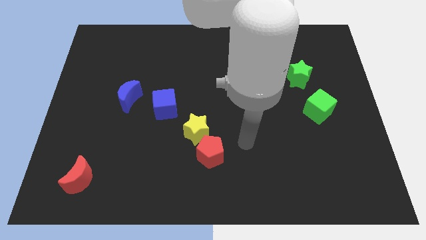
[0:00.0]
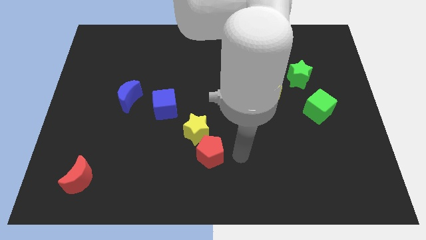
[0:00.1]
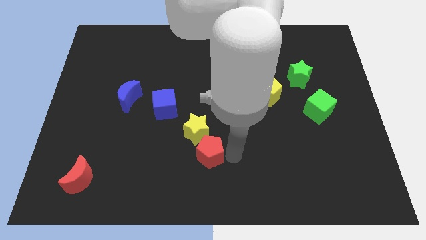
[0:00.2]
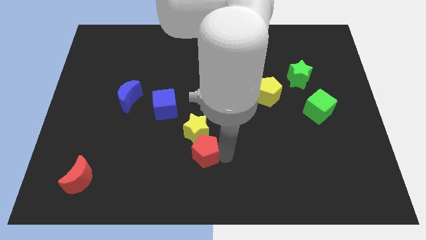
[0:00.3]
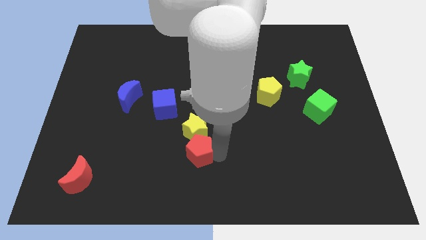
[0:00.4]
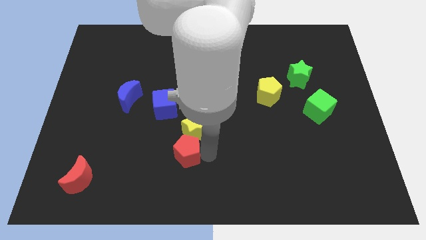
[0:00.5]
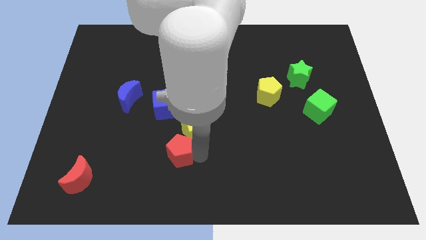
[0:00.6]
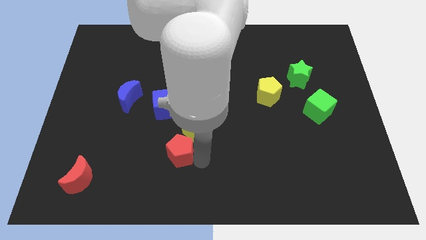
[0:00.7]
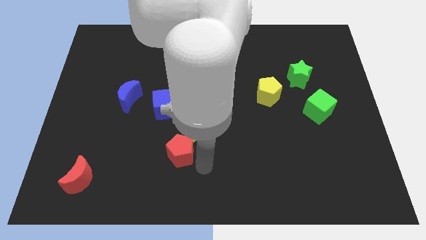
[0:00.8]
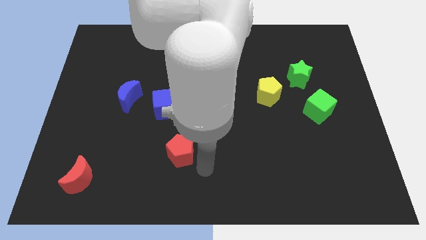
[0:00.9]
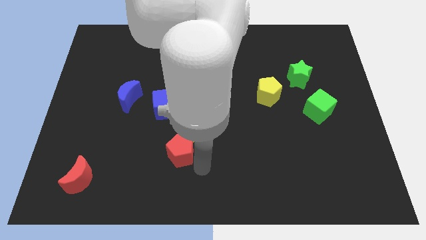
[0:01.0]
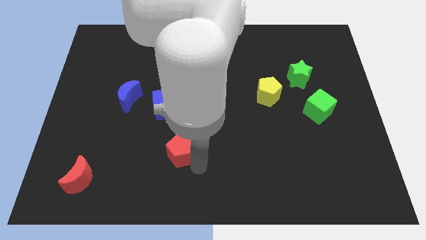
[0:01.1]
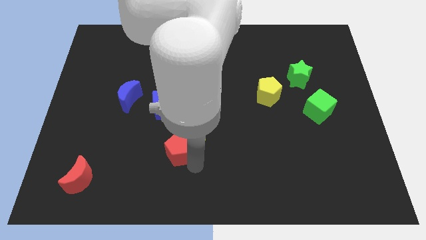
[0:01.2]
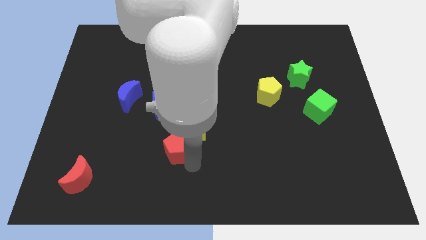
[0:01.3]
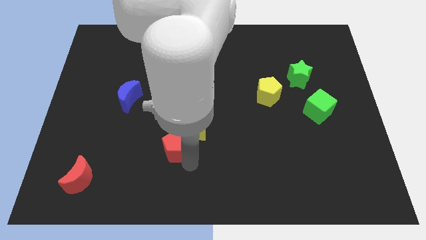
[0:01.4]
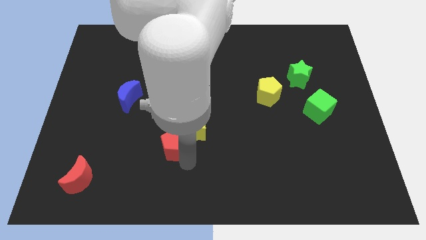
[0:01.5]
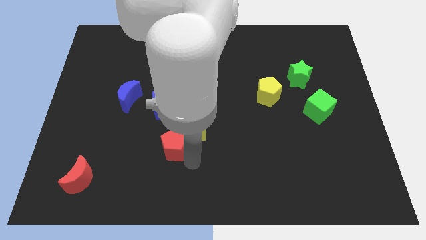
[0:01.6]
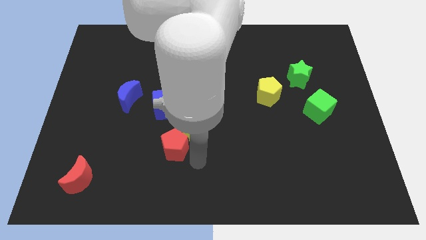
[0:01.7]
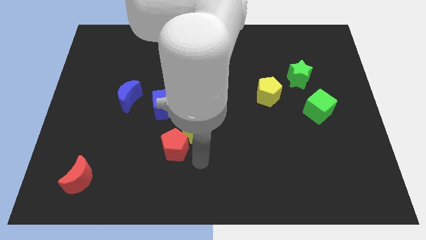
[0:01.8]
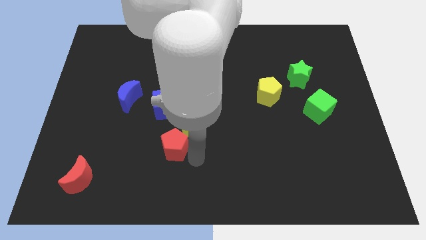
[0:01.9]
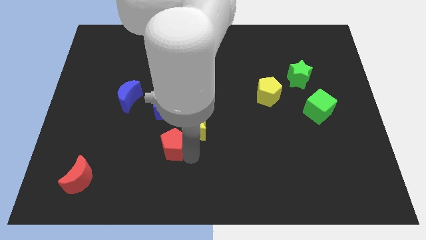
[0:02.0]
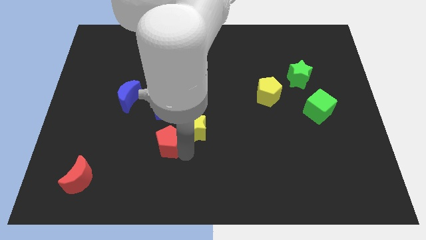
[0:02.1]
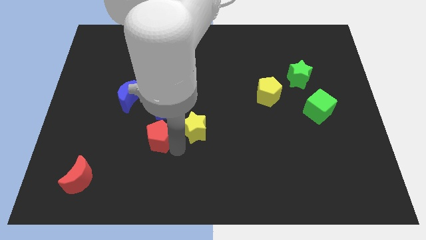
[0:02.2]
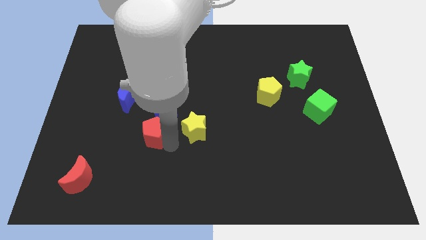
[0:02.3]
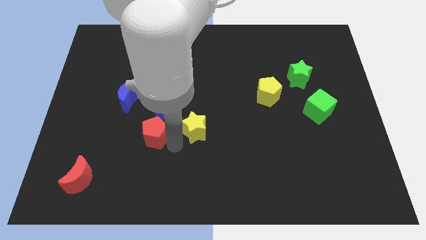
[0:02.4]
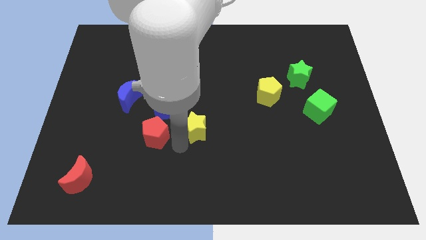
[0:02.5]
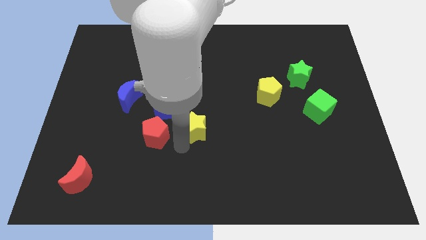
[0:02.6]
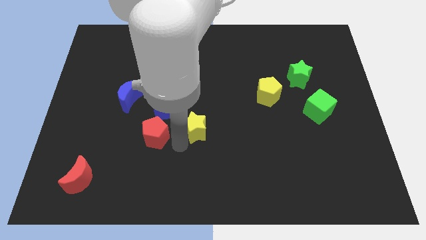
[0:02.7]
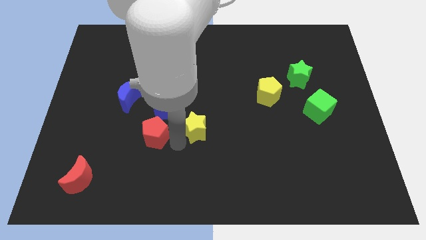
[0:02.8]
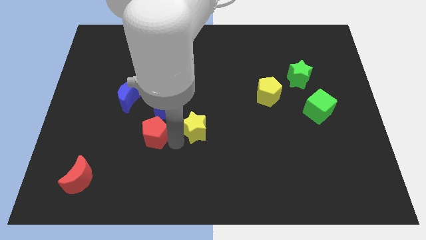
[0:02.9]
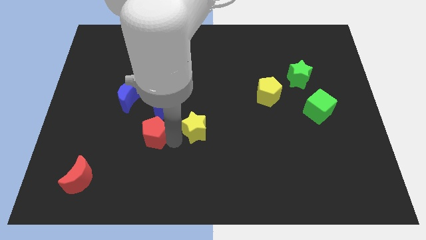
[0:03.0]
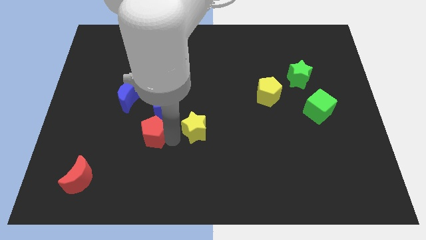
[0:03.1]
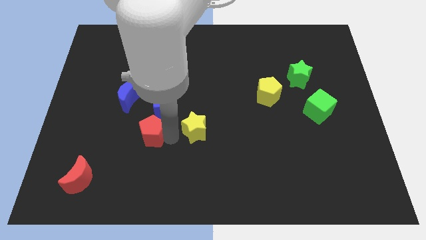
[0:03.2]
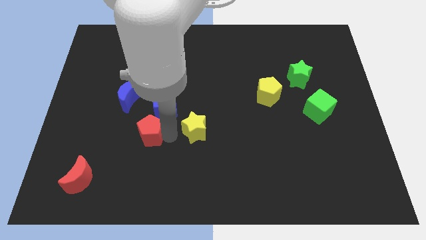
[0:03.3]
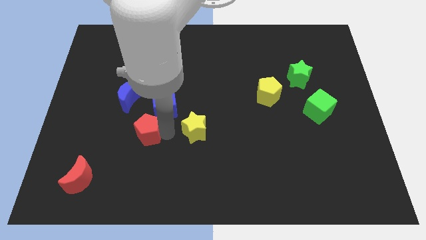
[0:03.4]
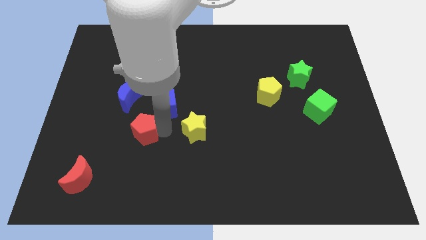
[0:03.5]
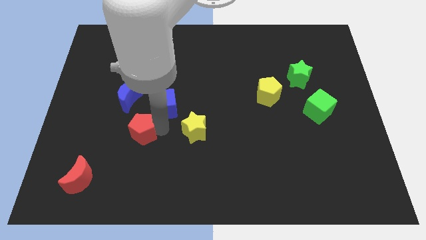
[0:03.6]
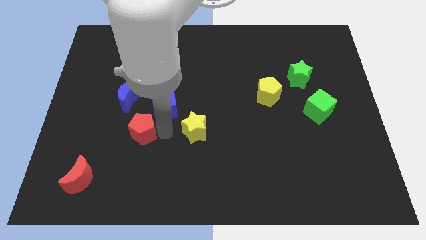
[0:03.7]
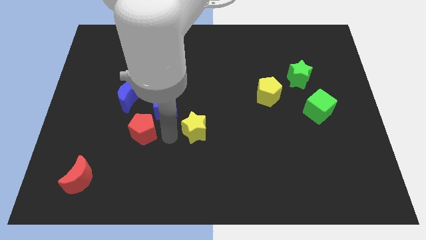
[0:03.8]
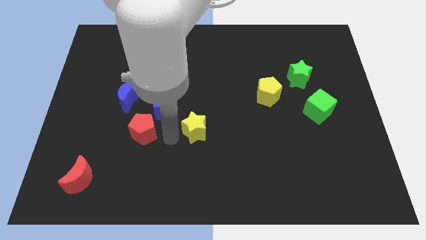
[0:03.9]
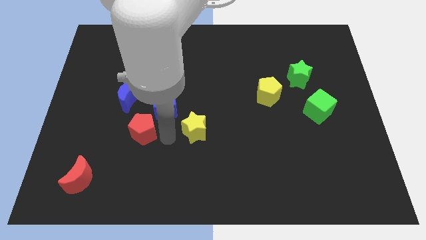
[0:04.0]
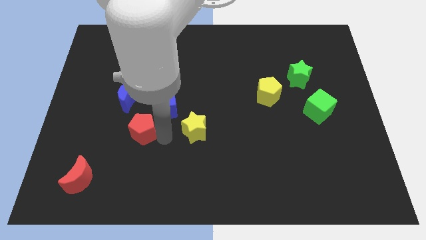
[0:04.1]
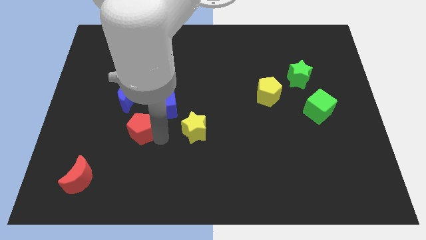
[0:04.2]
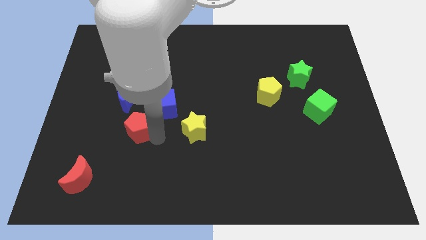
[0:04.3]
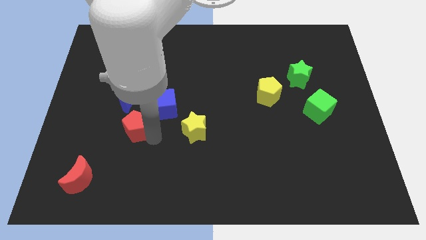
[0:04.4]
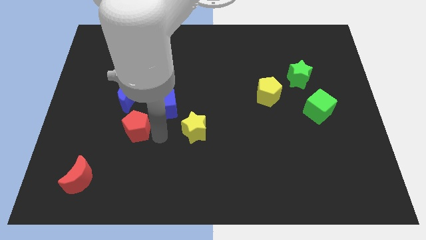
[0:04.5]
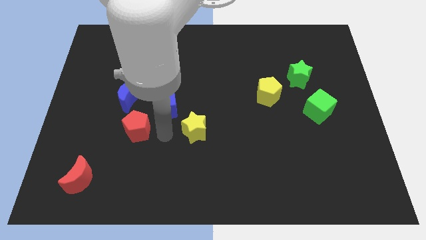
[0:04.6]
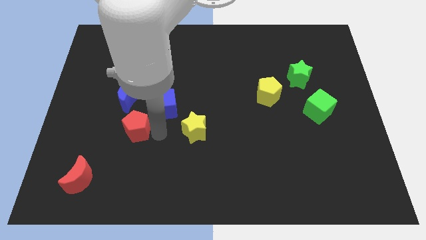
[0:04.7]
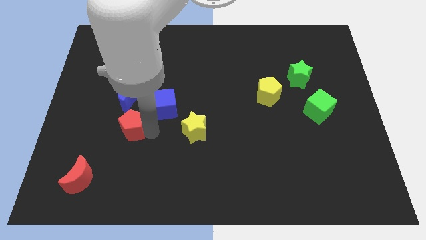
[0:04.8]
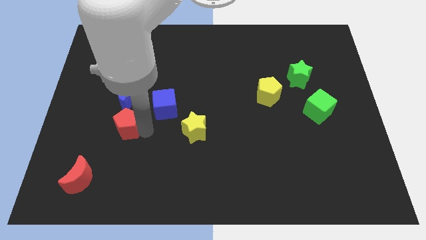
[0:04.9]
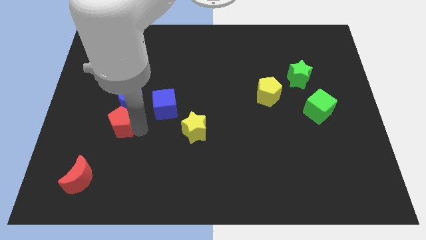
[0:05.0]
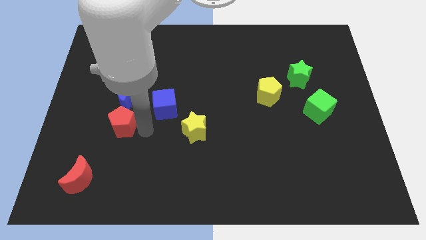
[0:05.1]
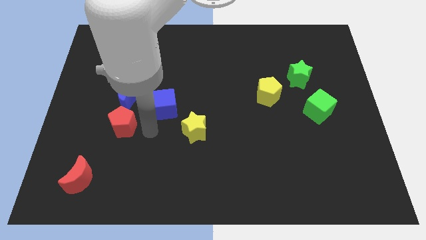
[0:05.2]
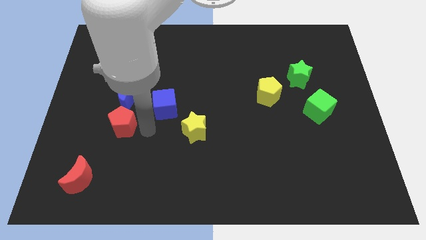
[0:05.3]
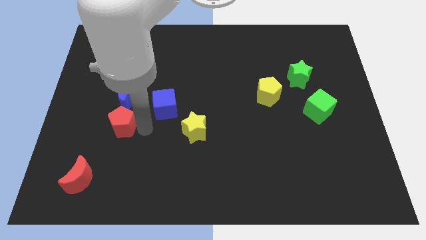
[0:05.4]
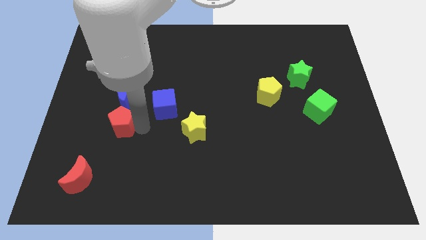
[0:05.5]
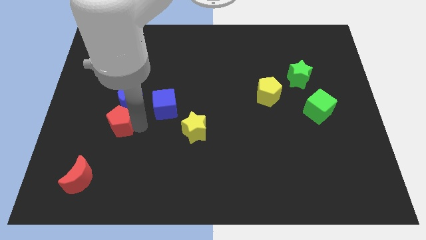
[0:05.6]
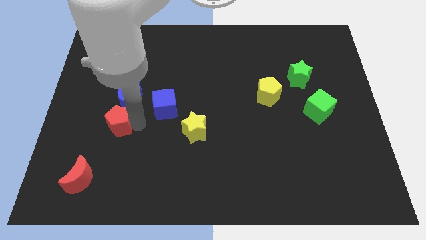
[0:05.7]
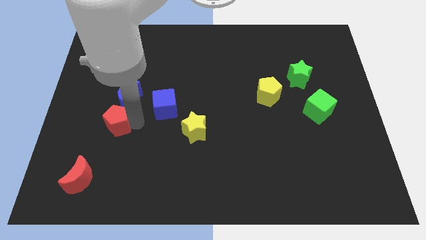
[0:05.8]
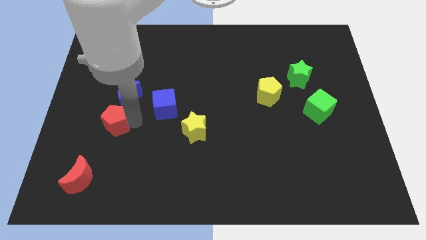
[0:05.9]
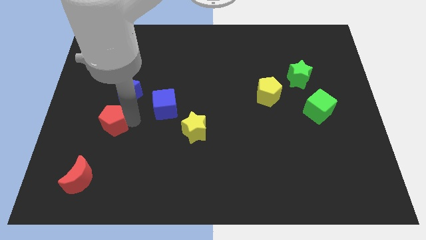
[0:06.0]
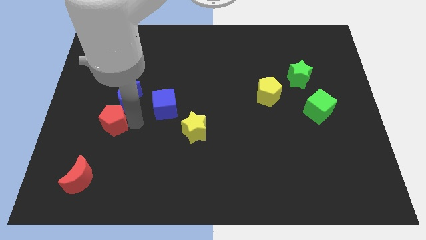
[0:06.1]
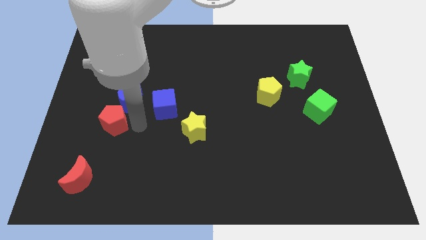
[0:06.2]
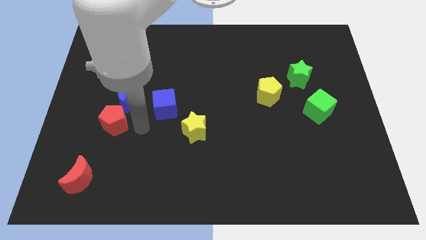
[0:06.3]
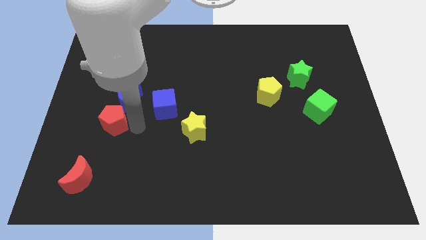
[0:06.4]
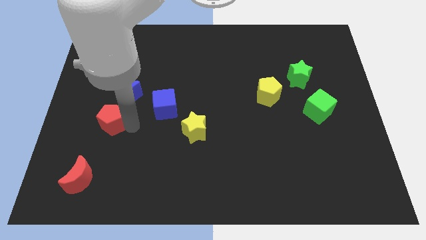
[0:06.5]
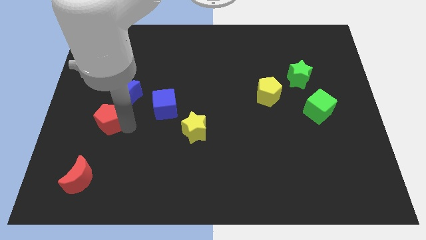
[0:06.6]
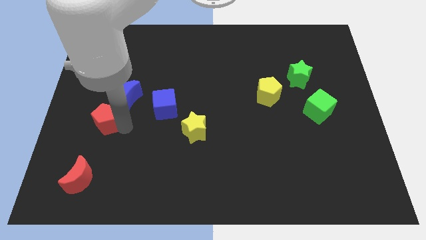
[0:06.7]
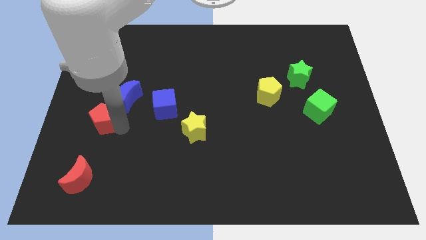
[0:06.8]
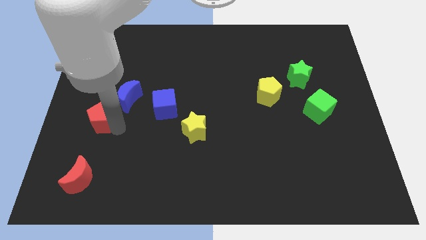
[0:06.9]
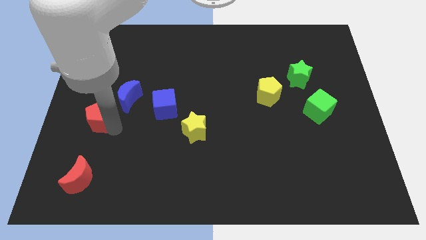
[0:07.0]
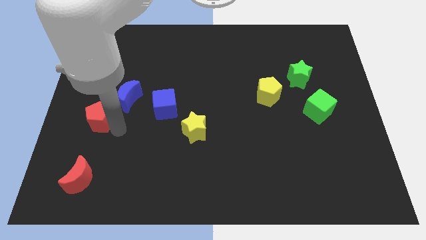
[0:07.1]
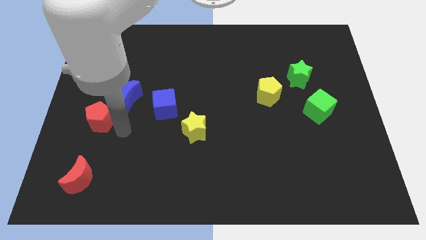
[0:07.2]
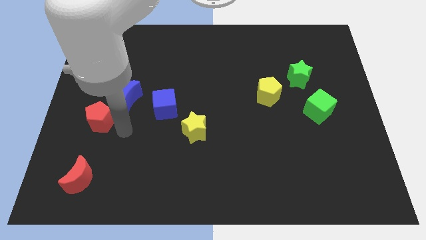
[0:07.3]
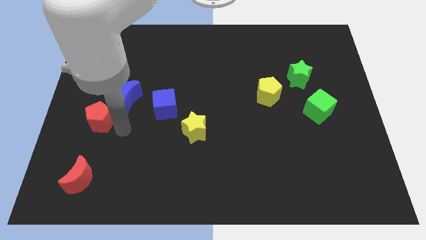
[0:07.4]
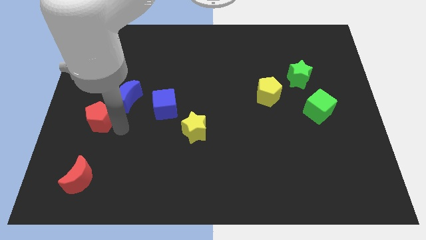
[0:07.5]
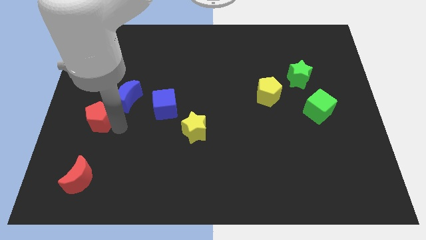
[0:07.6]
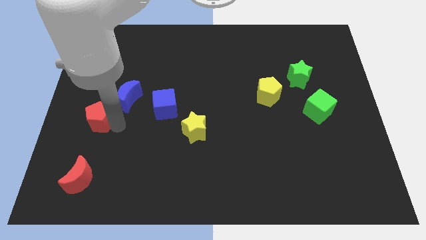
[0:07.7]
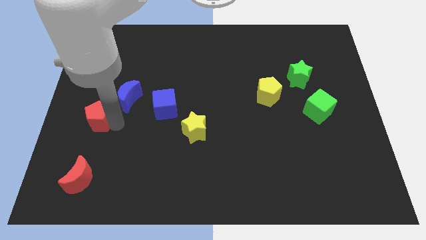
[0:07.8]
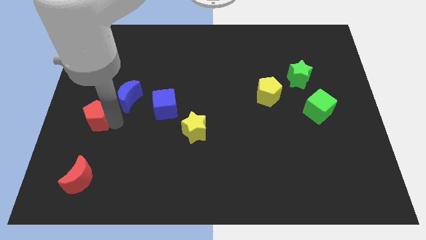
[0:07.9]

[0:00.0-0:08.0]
slide the red pentagon to the left side
